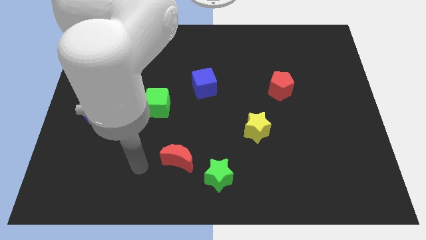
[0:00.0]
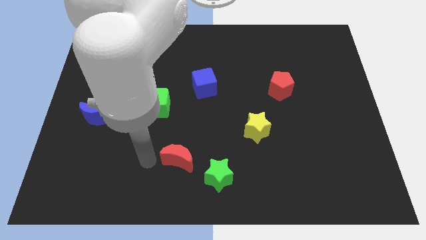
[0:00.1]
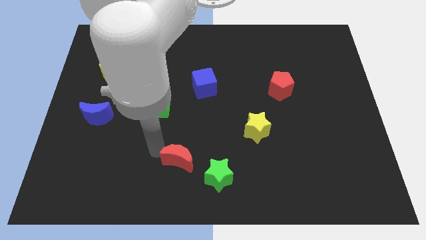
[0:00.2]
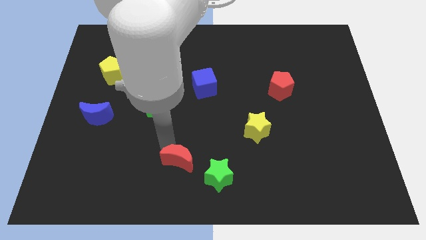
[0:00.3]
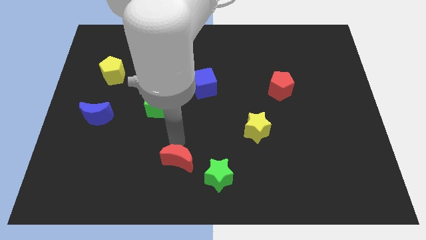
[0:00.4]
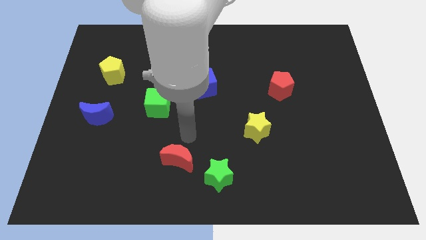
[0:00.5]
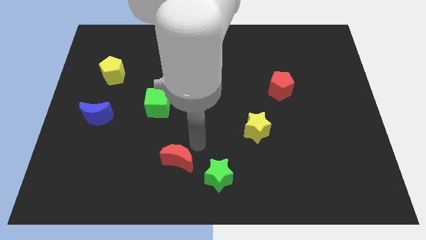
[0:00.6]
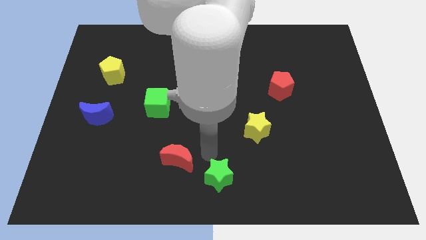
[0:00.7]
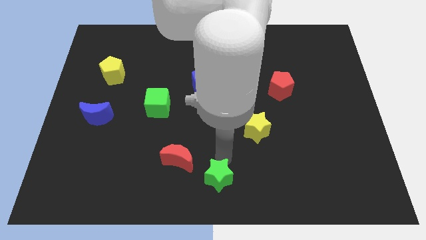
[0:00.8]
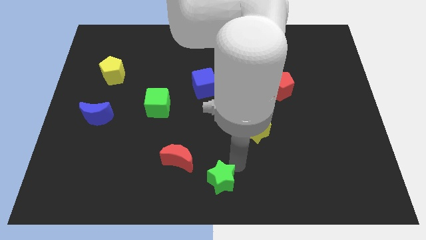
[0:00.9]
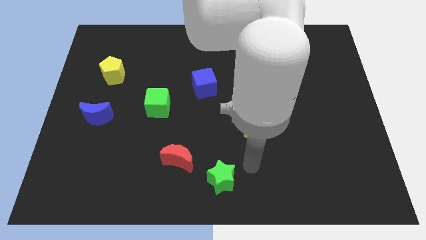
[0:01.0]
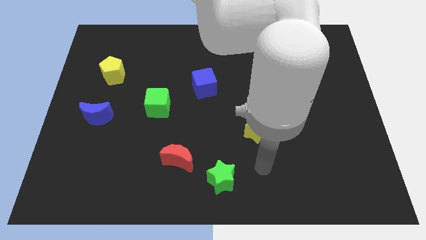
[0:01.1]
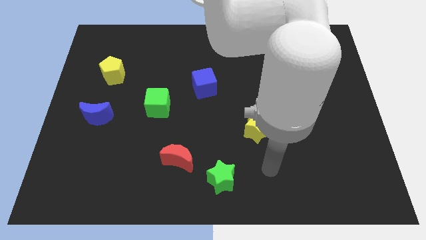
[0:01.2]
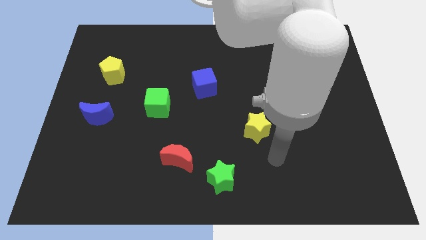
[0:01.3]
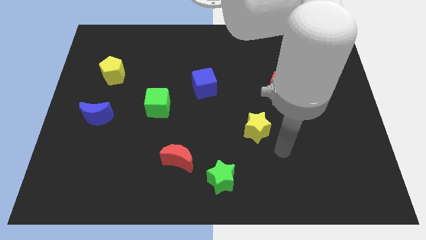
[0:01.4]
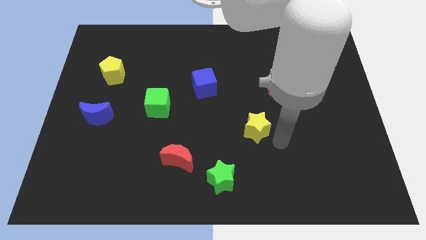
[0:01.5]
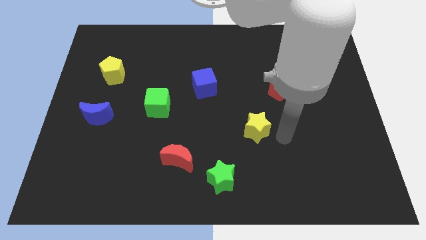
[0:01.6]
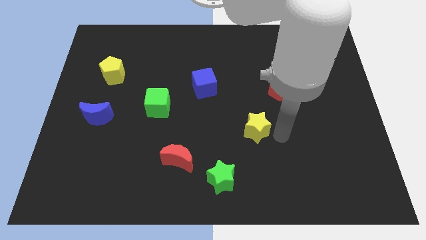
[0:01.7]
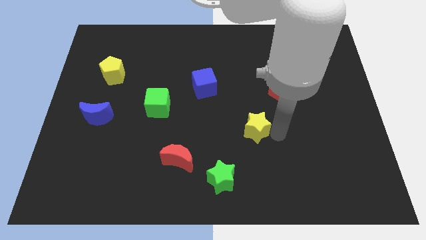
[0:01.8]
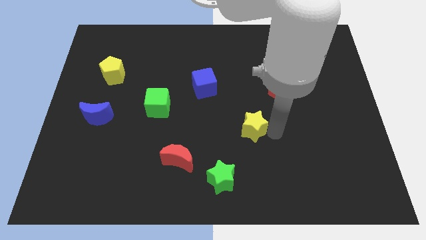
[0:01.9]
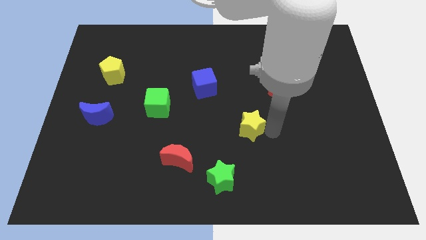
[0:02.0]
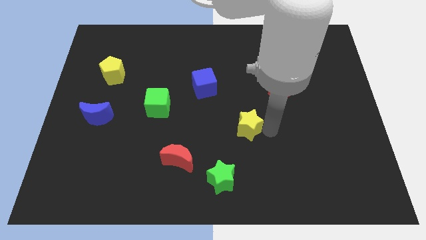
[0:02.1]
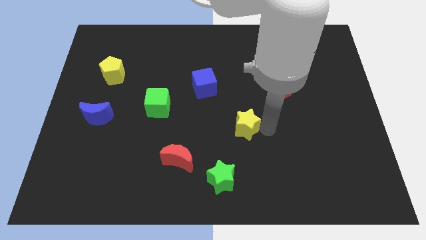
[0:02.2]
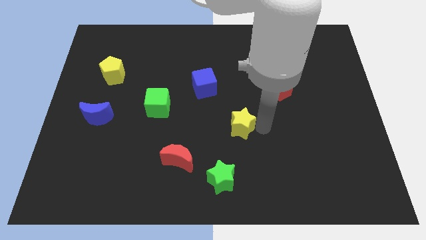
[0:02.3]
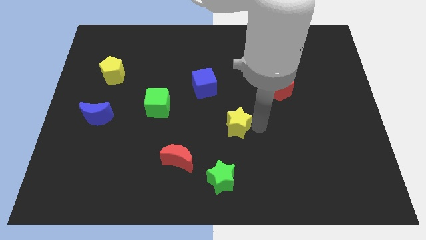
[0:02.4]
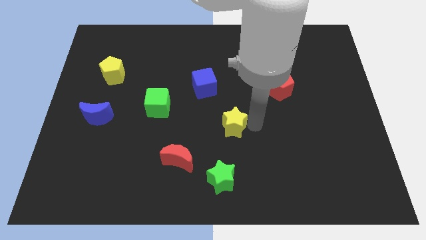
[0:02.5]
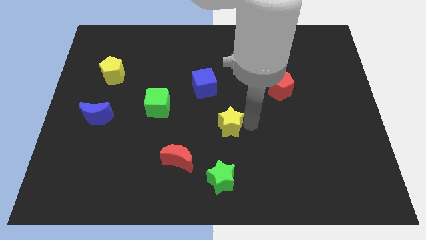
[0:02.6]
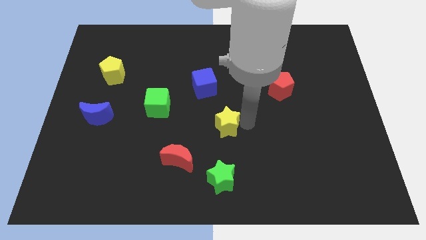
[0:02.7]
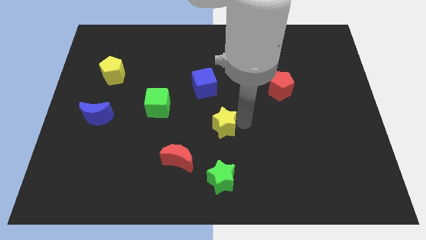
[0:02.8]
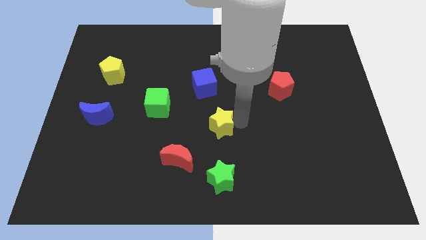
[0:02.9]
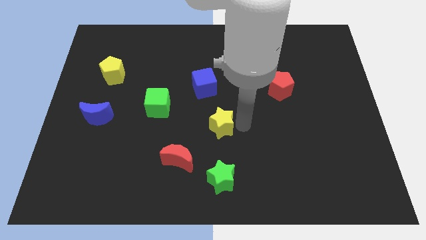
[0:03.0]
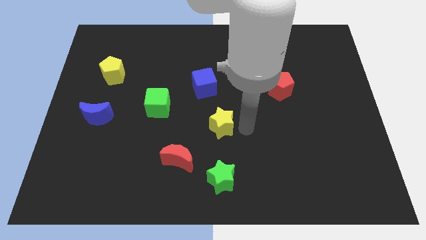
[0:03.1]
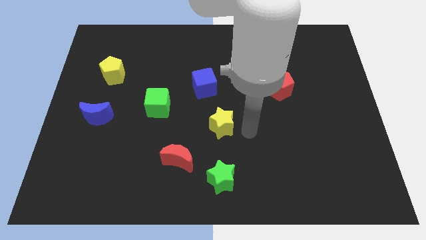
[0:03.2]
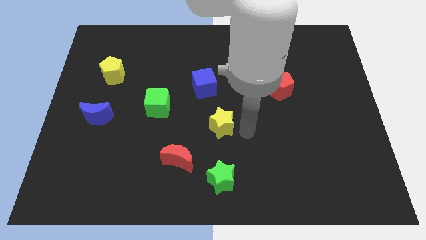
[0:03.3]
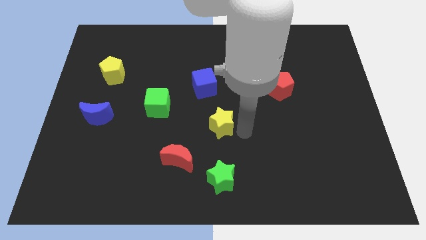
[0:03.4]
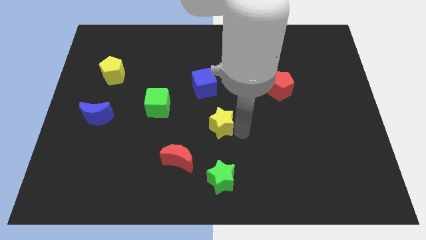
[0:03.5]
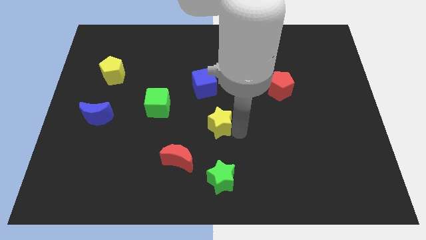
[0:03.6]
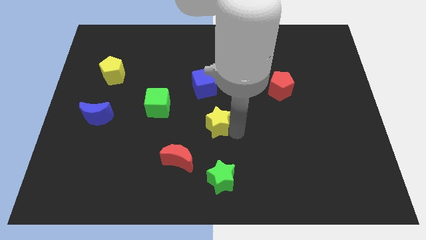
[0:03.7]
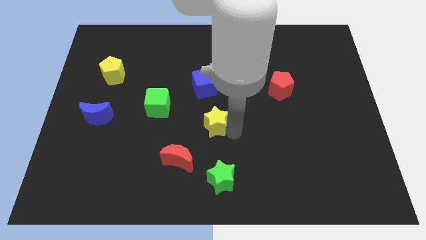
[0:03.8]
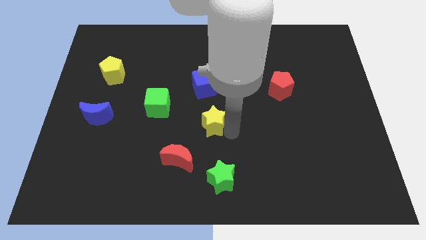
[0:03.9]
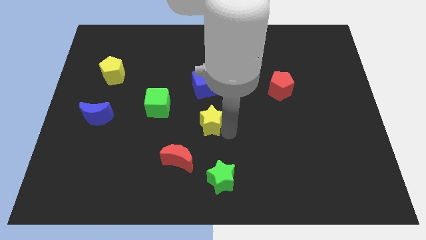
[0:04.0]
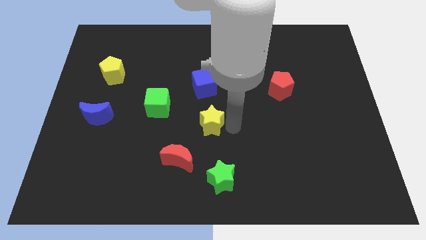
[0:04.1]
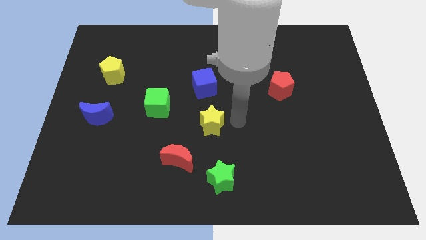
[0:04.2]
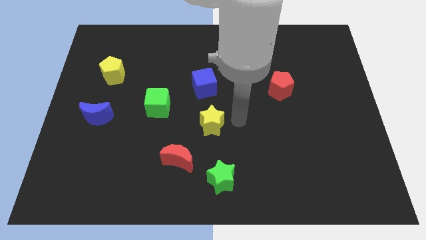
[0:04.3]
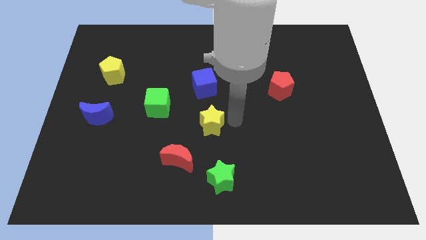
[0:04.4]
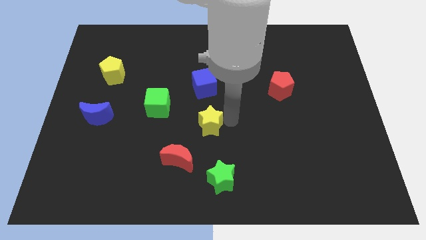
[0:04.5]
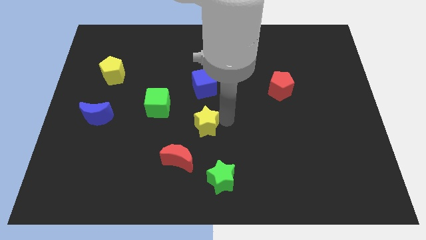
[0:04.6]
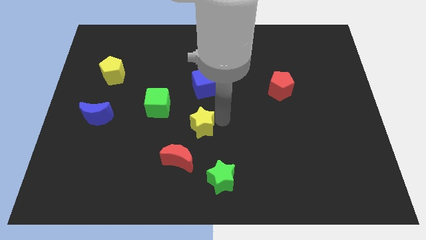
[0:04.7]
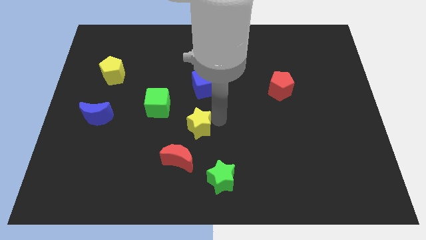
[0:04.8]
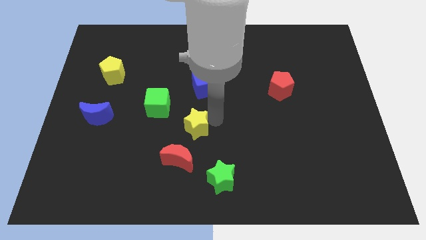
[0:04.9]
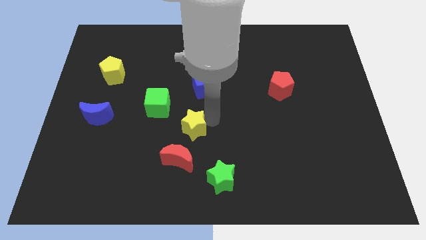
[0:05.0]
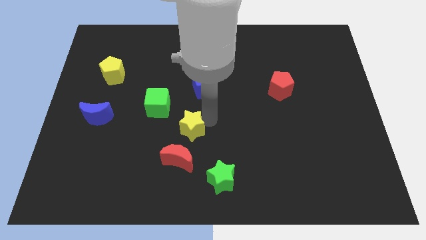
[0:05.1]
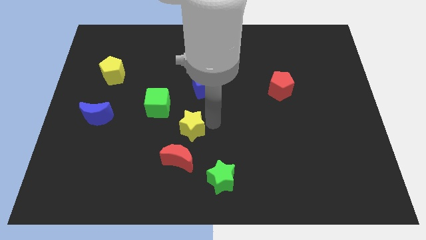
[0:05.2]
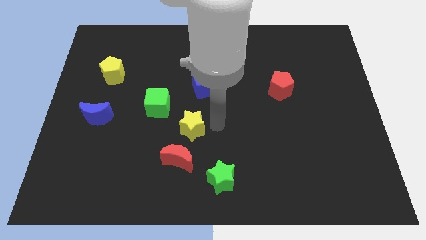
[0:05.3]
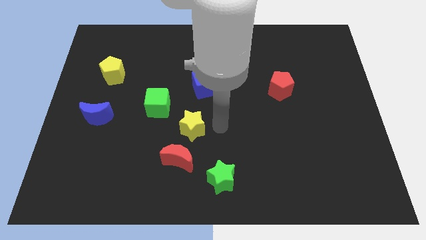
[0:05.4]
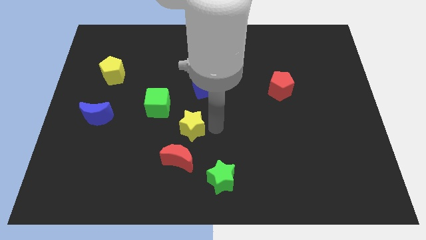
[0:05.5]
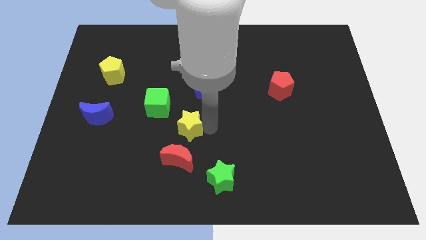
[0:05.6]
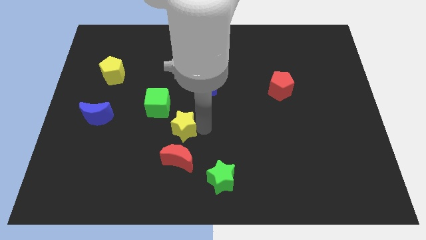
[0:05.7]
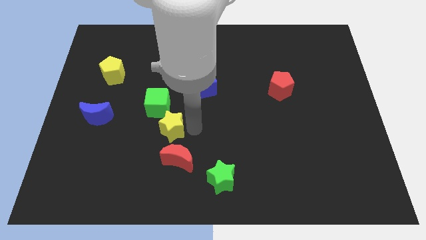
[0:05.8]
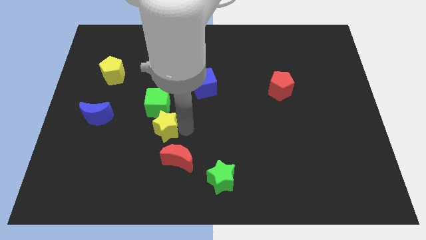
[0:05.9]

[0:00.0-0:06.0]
push the yellow star to the left

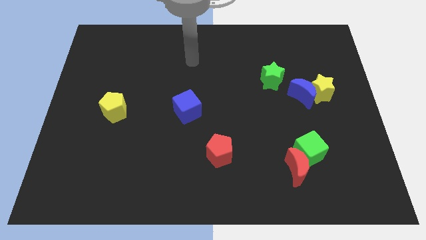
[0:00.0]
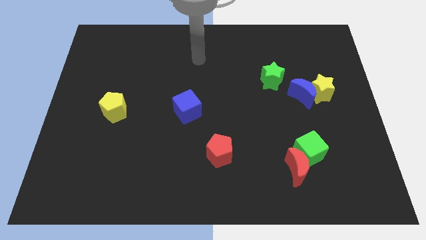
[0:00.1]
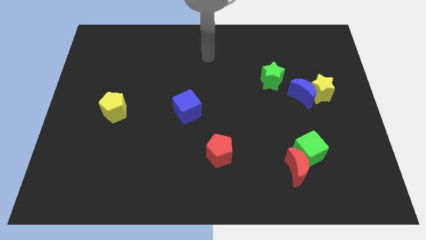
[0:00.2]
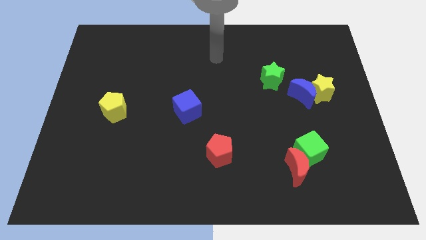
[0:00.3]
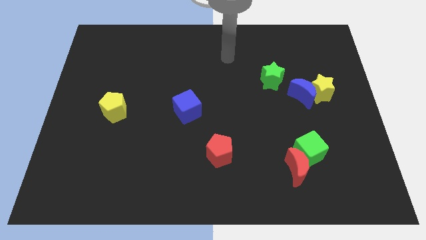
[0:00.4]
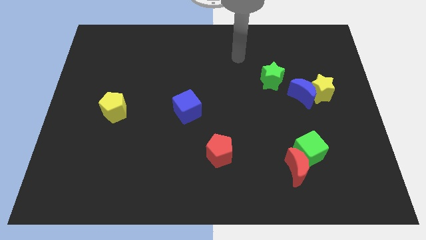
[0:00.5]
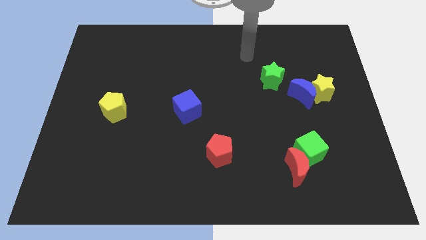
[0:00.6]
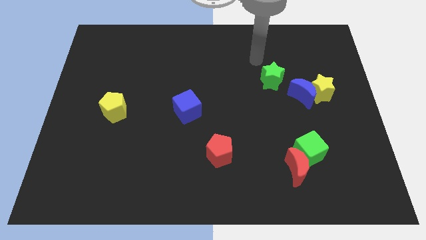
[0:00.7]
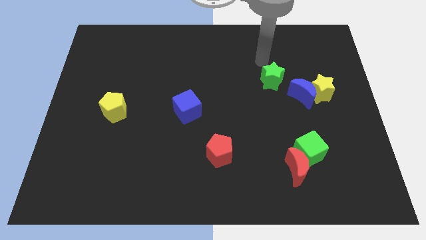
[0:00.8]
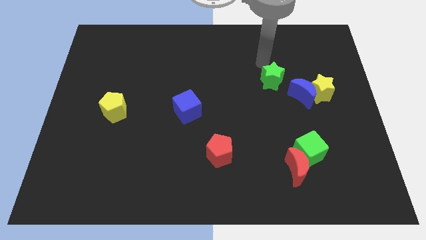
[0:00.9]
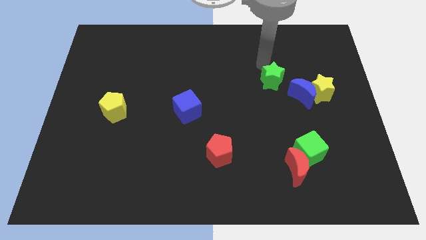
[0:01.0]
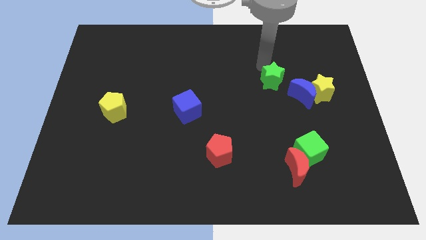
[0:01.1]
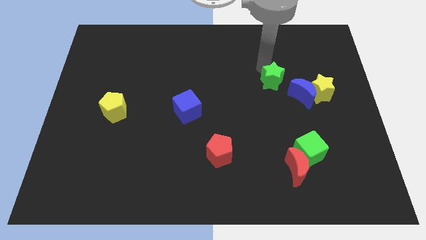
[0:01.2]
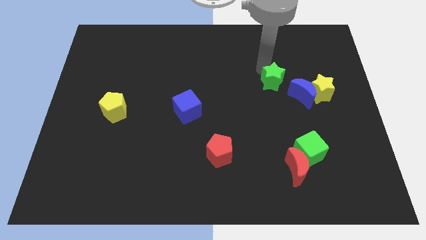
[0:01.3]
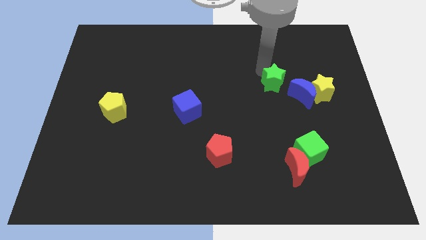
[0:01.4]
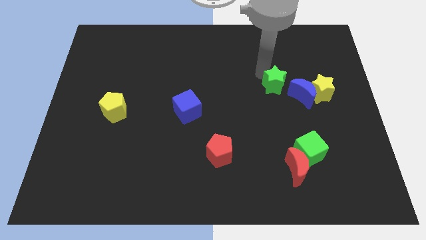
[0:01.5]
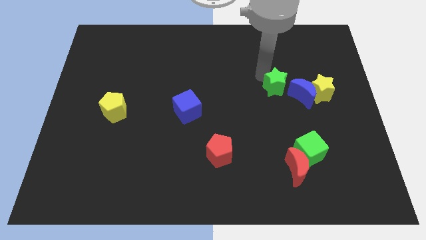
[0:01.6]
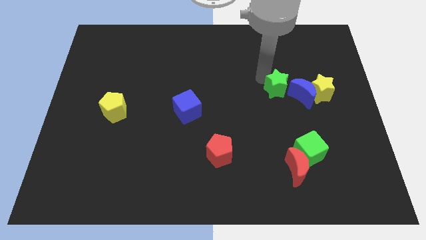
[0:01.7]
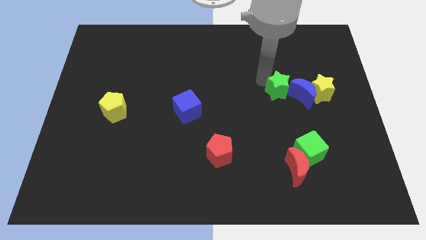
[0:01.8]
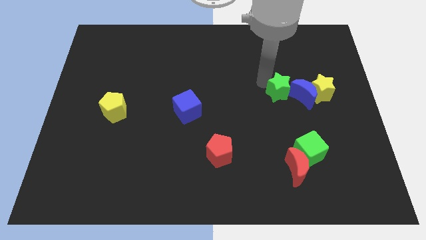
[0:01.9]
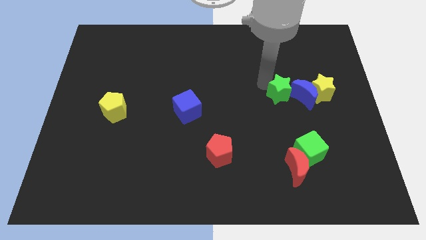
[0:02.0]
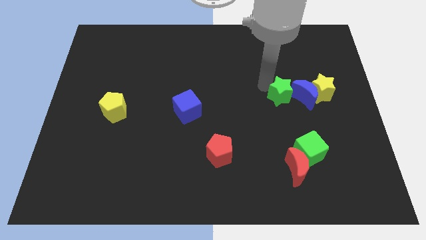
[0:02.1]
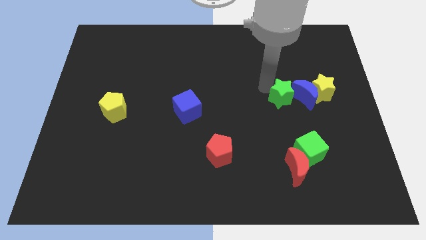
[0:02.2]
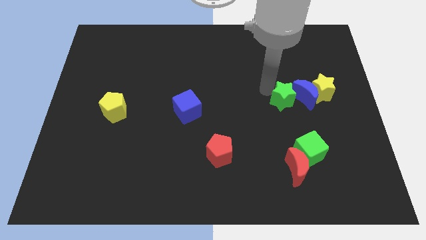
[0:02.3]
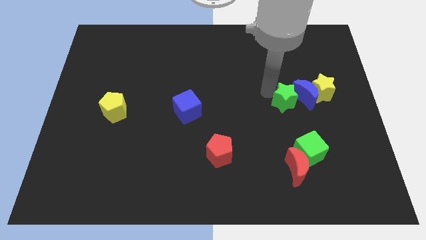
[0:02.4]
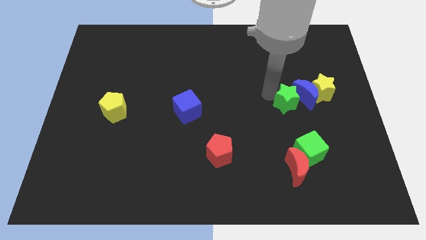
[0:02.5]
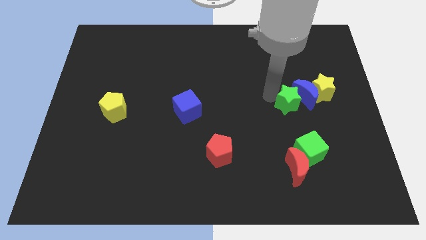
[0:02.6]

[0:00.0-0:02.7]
slightly move the green star down and then to the right
